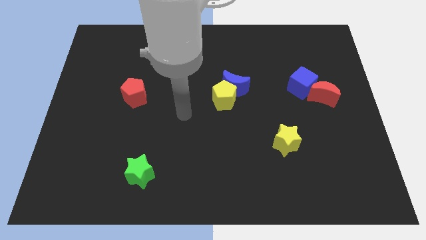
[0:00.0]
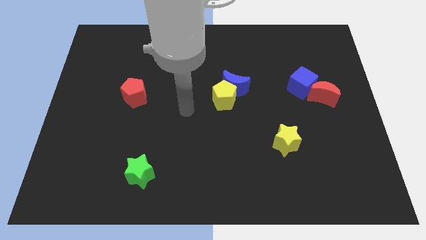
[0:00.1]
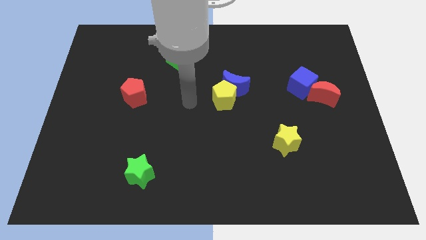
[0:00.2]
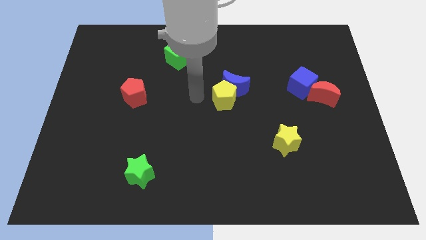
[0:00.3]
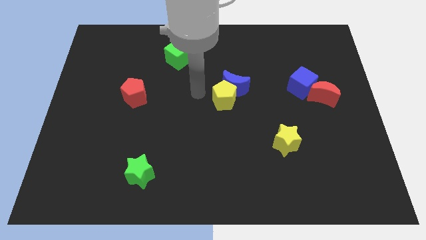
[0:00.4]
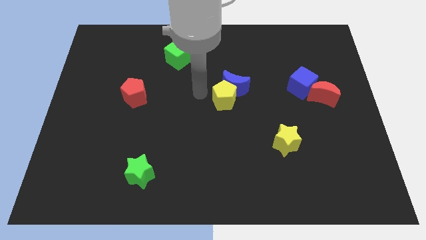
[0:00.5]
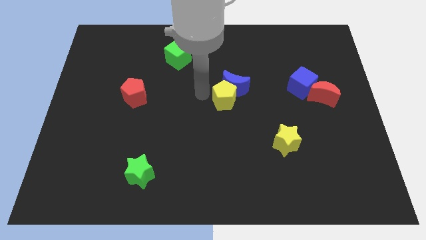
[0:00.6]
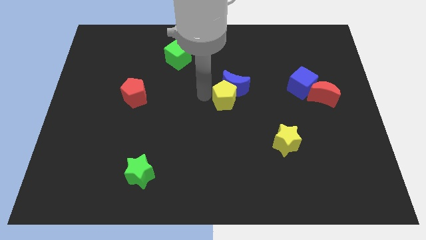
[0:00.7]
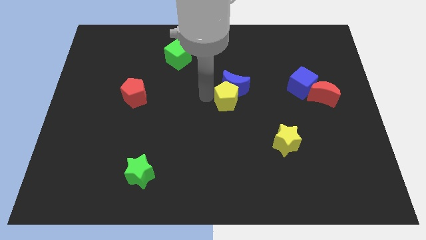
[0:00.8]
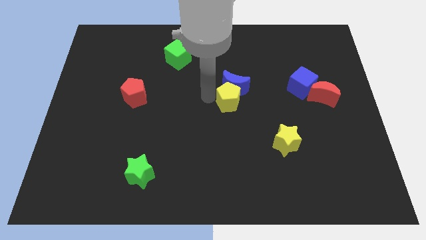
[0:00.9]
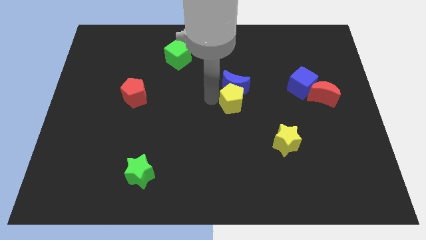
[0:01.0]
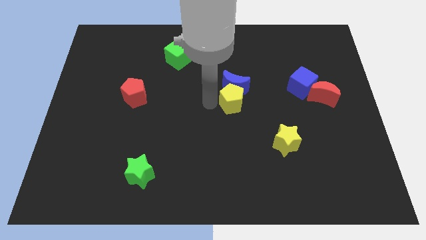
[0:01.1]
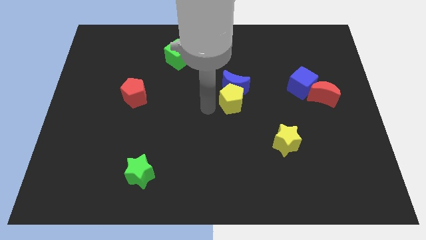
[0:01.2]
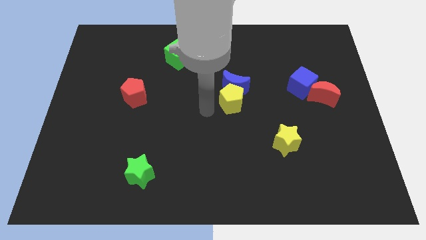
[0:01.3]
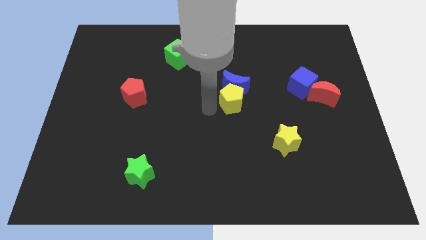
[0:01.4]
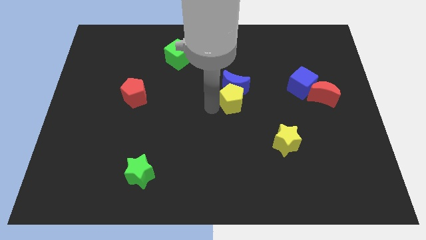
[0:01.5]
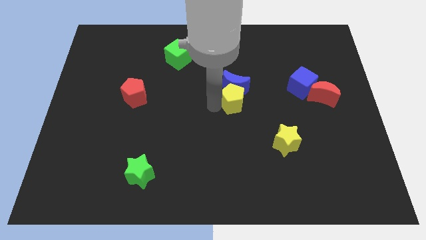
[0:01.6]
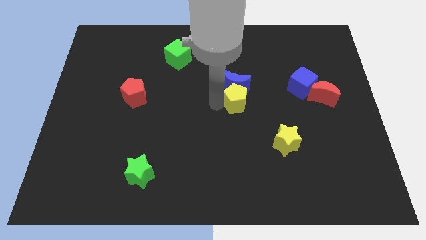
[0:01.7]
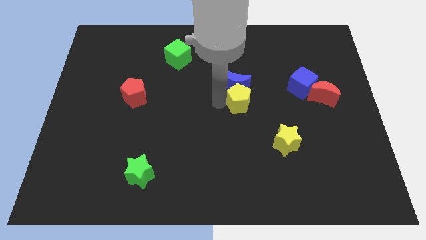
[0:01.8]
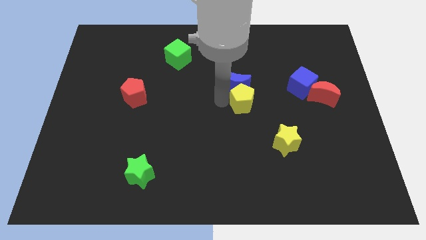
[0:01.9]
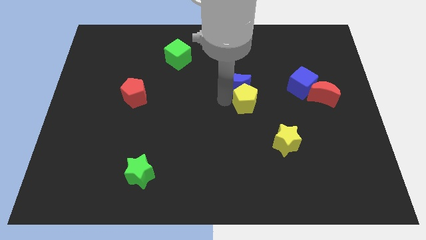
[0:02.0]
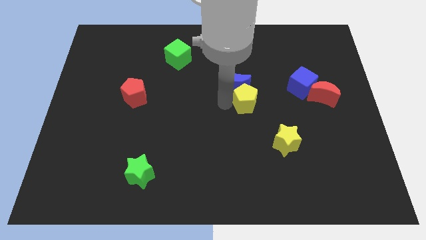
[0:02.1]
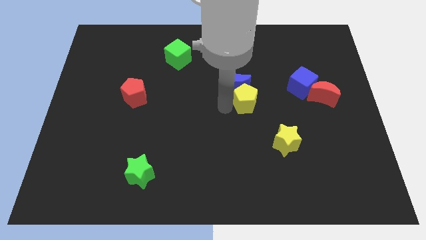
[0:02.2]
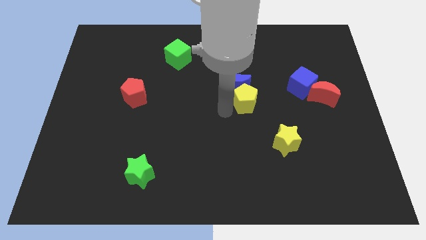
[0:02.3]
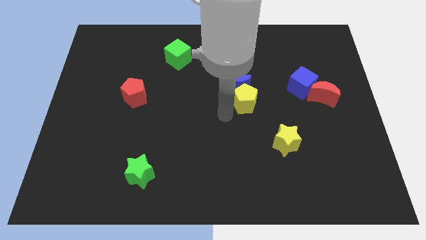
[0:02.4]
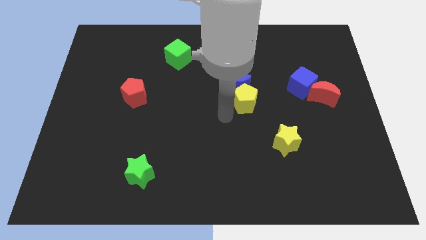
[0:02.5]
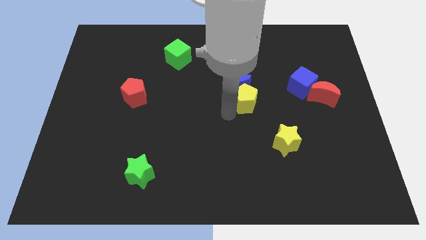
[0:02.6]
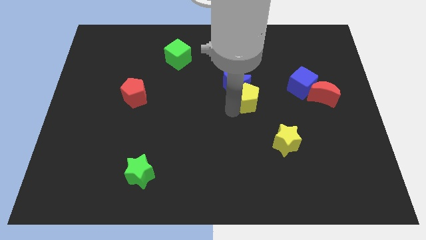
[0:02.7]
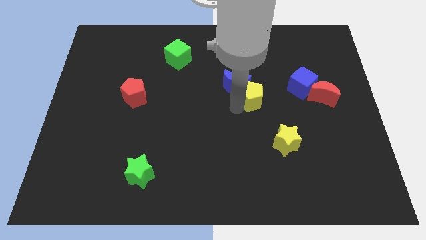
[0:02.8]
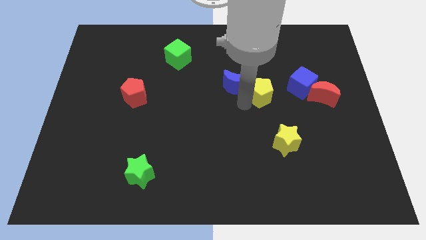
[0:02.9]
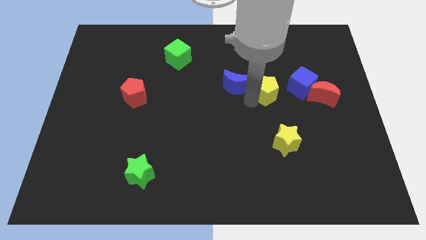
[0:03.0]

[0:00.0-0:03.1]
slightly slide the yellow pentagon diagonally up and right

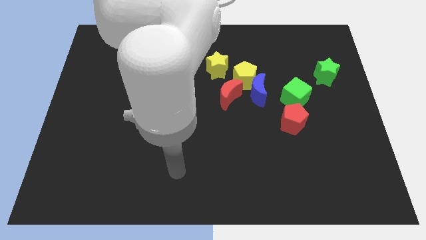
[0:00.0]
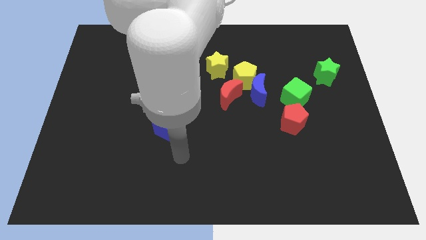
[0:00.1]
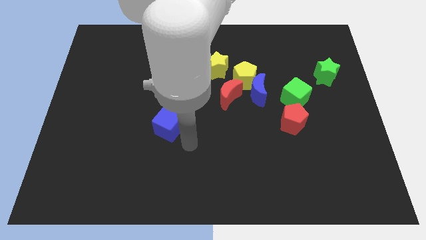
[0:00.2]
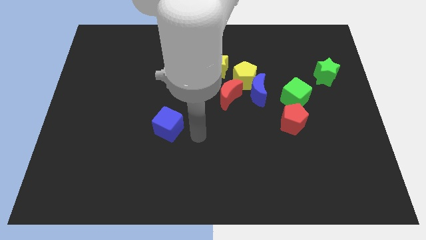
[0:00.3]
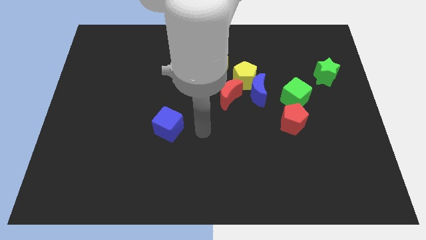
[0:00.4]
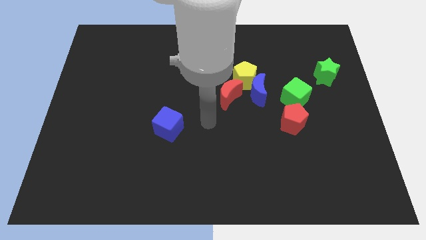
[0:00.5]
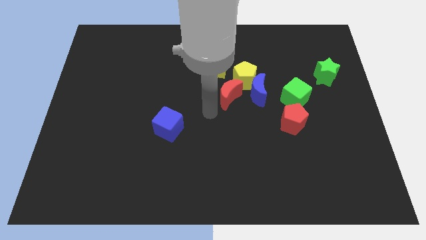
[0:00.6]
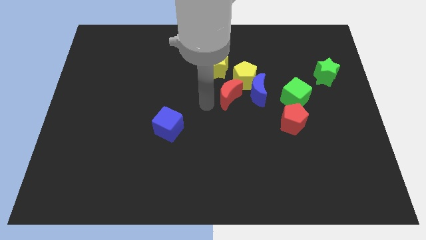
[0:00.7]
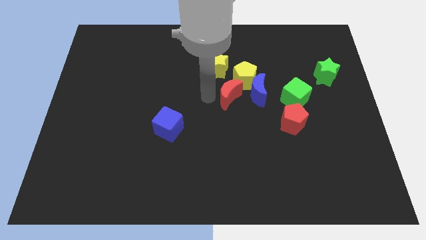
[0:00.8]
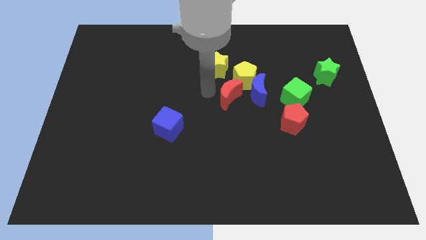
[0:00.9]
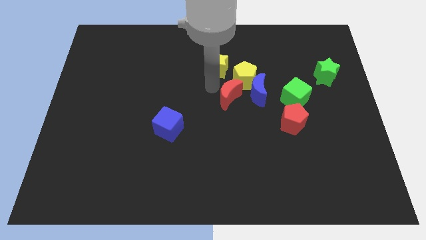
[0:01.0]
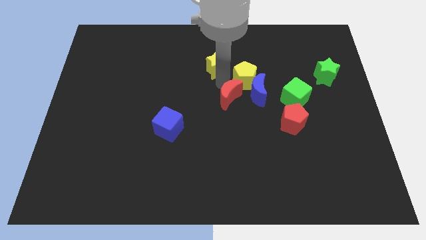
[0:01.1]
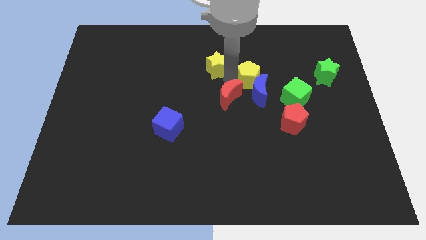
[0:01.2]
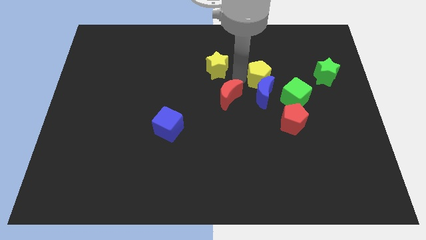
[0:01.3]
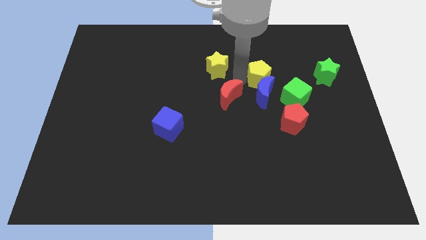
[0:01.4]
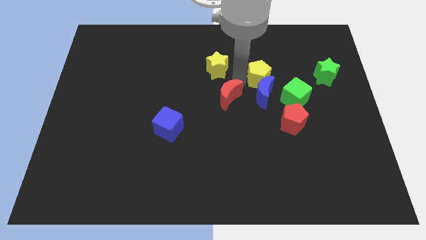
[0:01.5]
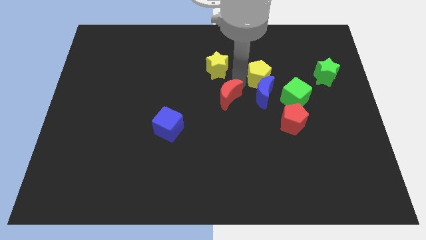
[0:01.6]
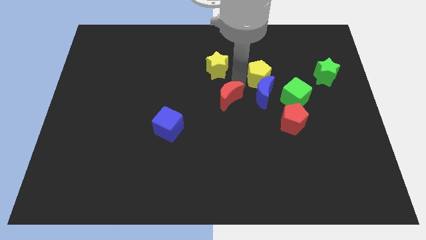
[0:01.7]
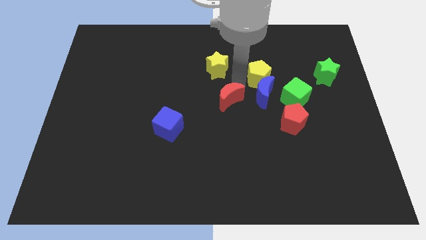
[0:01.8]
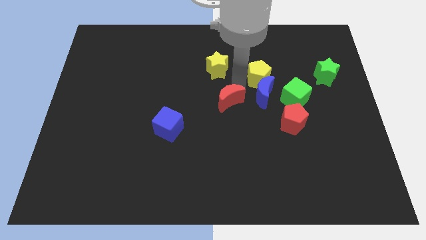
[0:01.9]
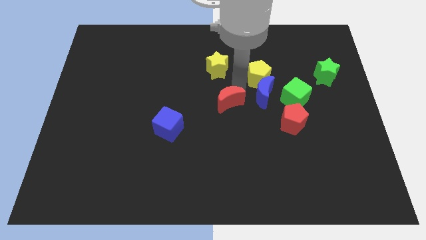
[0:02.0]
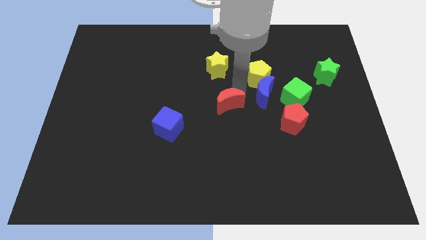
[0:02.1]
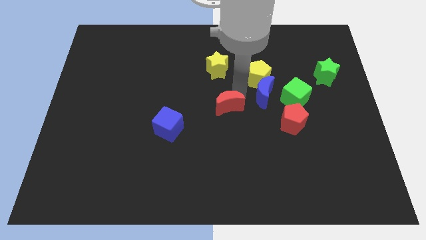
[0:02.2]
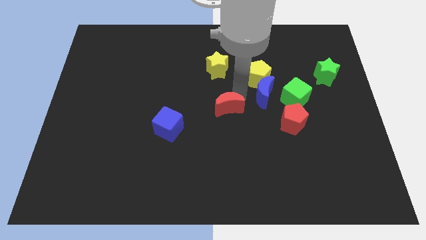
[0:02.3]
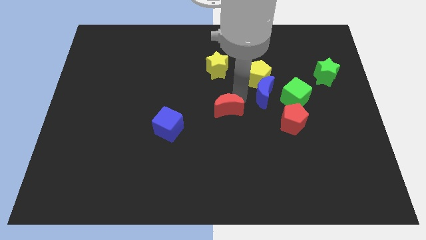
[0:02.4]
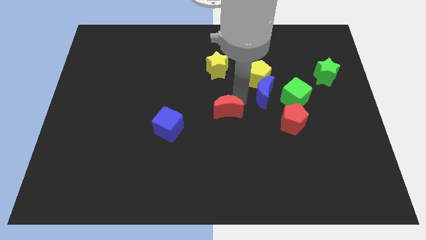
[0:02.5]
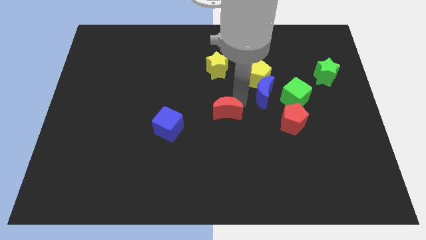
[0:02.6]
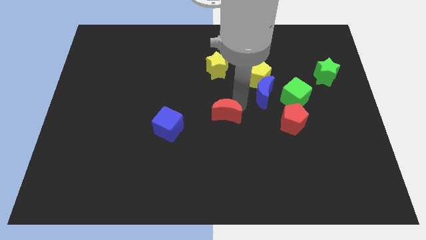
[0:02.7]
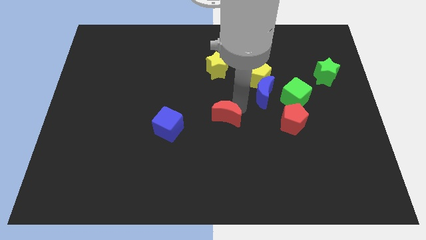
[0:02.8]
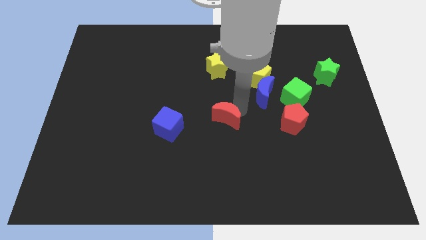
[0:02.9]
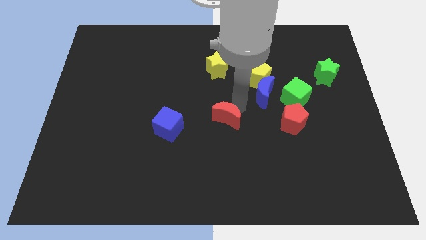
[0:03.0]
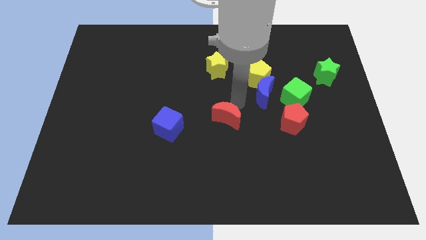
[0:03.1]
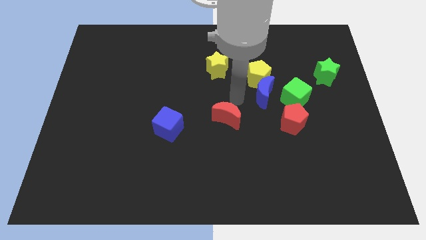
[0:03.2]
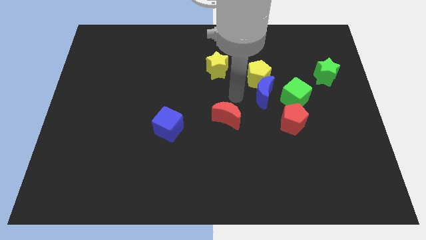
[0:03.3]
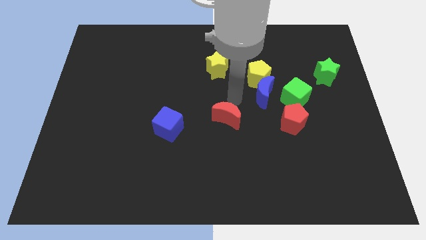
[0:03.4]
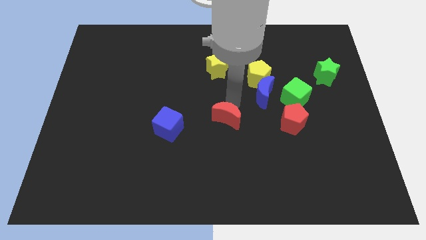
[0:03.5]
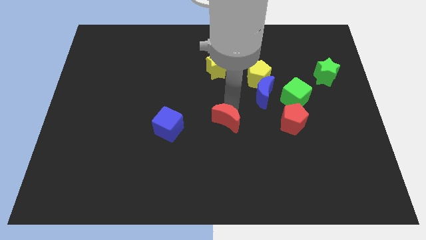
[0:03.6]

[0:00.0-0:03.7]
move the red moon downwards a little

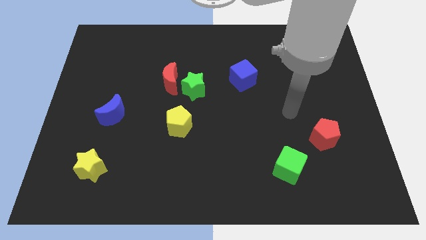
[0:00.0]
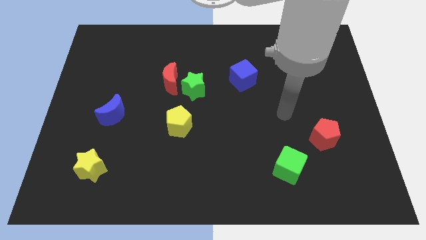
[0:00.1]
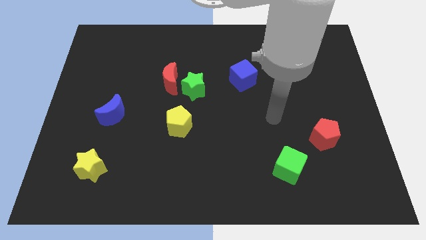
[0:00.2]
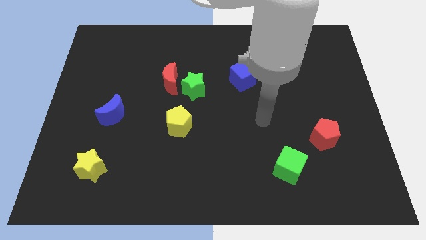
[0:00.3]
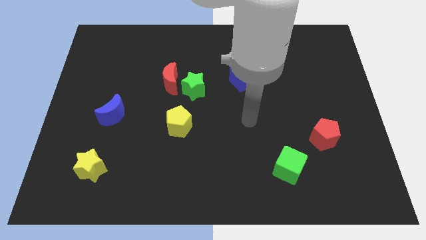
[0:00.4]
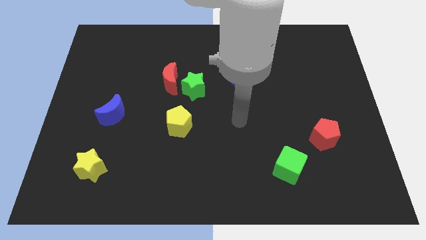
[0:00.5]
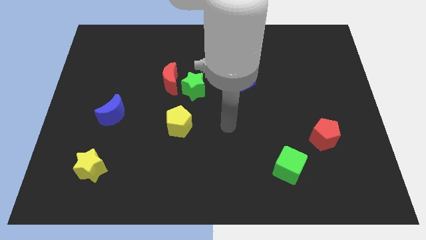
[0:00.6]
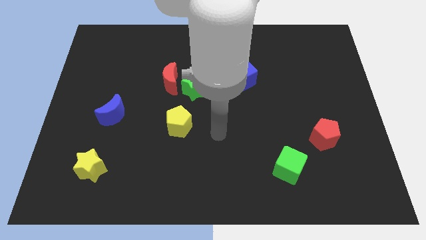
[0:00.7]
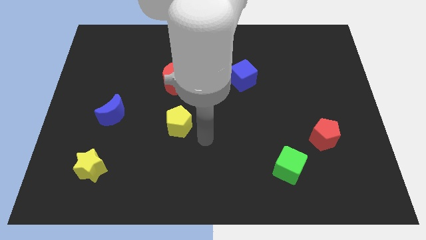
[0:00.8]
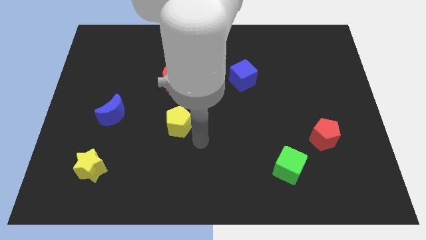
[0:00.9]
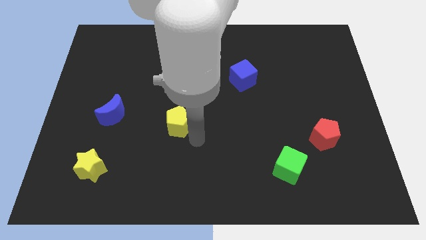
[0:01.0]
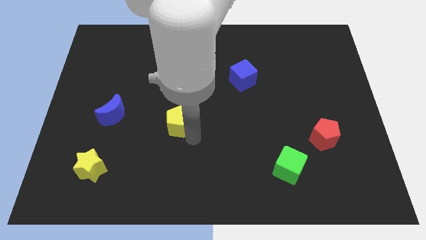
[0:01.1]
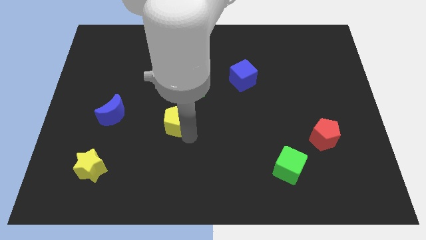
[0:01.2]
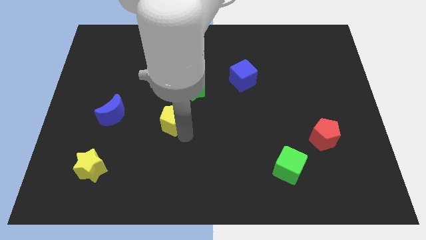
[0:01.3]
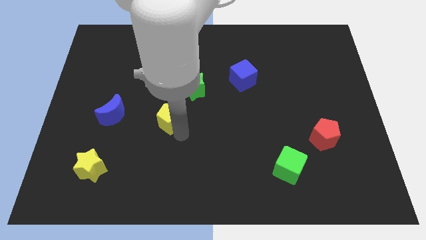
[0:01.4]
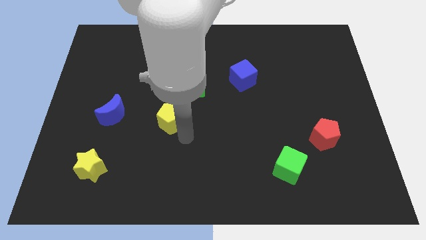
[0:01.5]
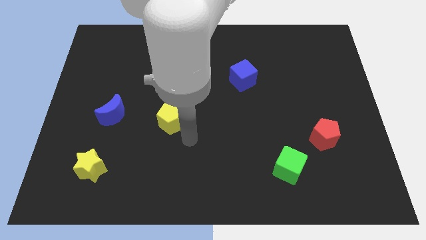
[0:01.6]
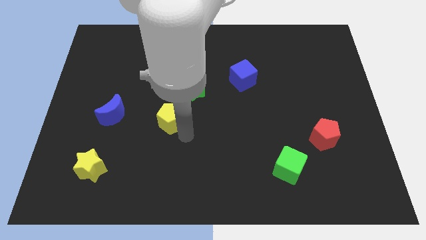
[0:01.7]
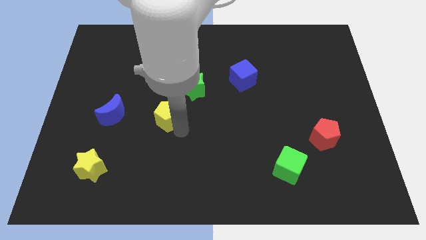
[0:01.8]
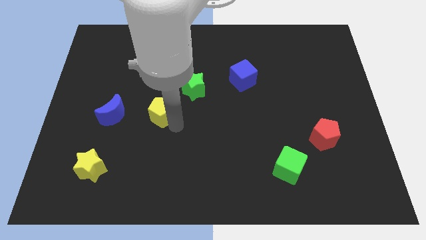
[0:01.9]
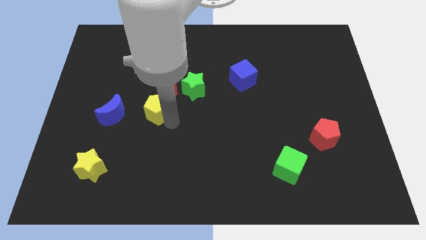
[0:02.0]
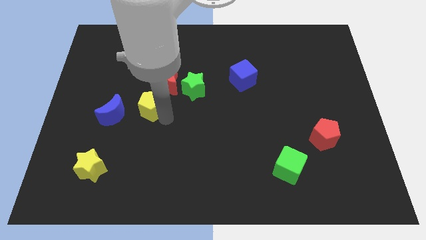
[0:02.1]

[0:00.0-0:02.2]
move the yellow pentagon diagonally up and to the left slightly
